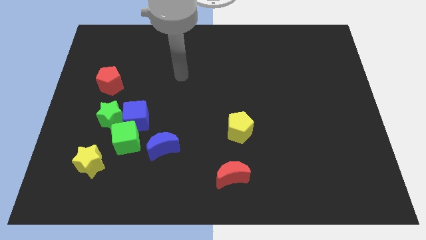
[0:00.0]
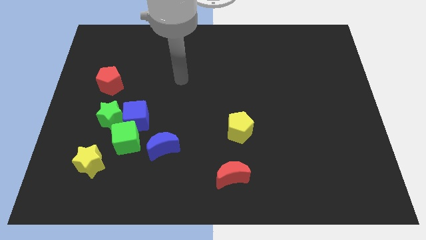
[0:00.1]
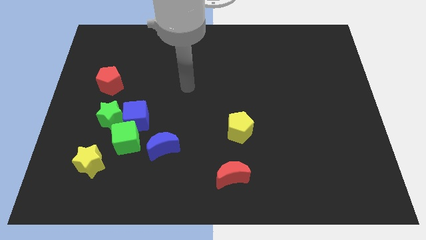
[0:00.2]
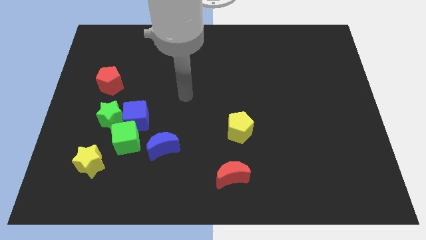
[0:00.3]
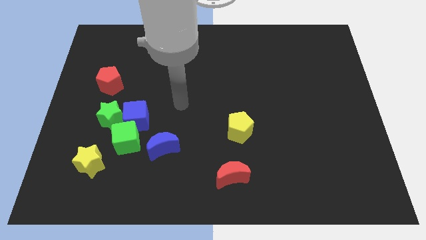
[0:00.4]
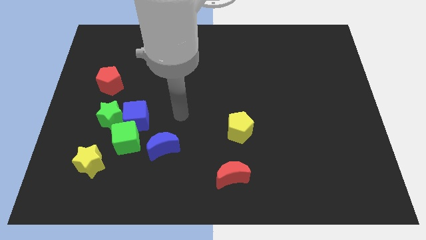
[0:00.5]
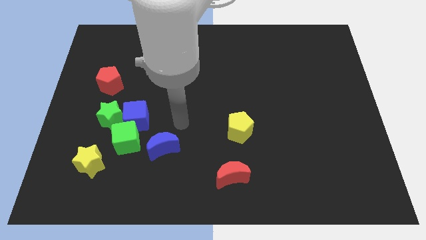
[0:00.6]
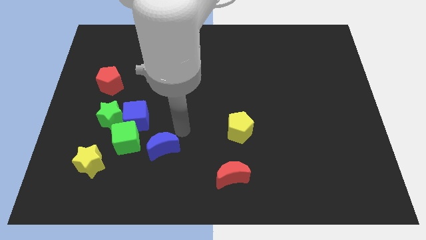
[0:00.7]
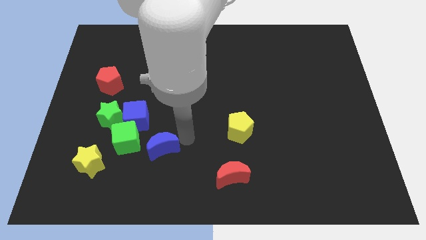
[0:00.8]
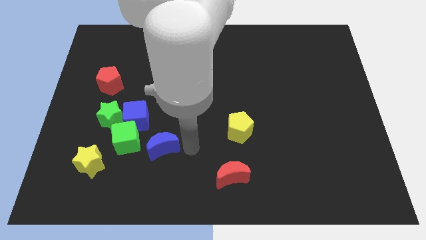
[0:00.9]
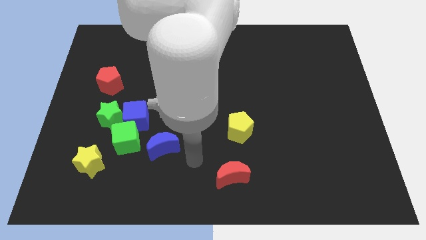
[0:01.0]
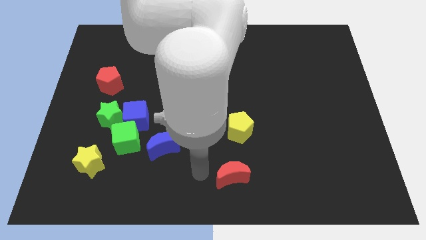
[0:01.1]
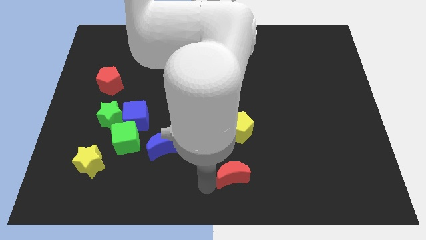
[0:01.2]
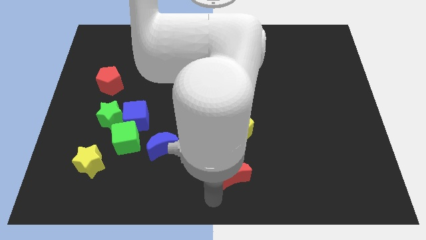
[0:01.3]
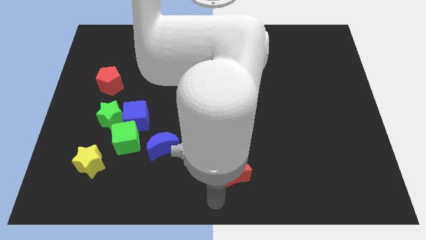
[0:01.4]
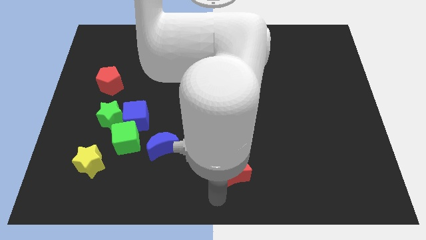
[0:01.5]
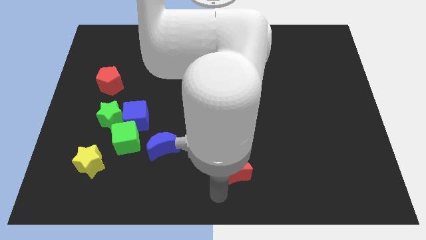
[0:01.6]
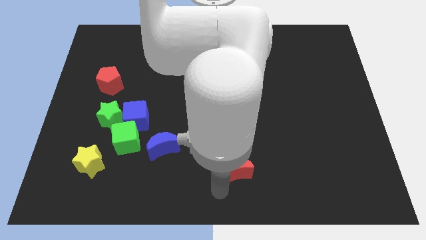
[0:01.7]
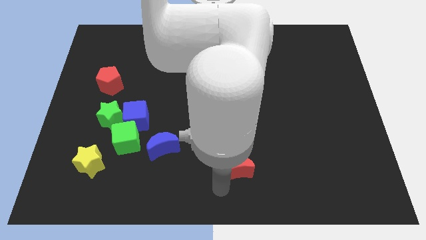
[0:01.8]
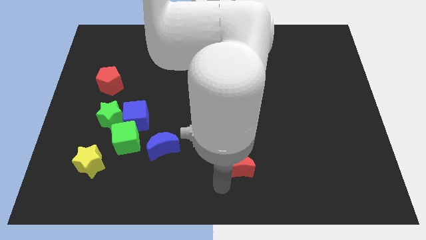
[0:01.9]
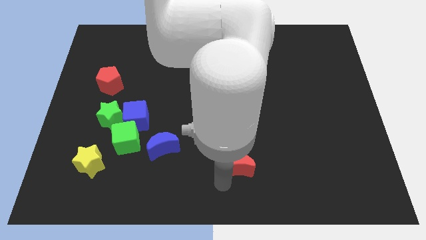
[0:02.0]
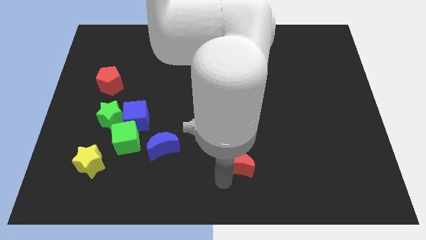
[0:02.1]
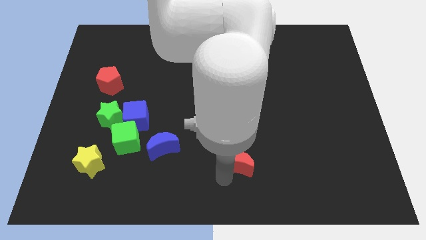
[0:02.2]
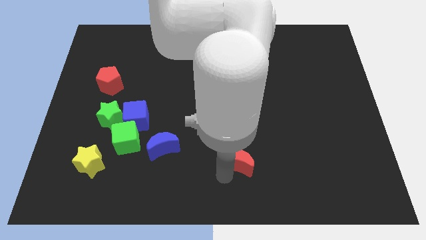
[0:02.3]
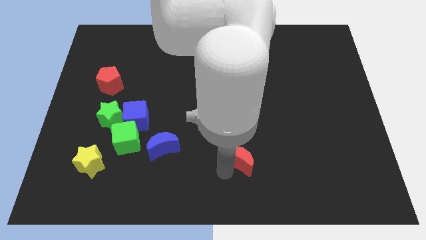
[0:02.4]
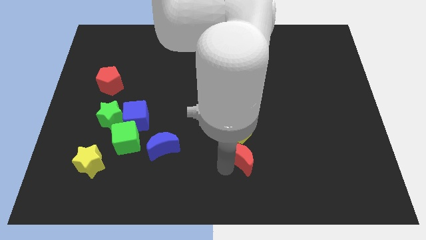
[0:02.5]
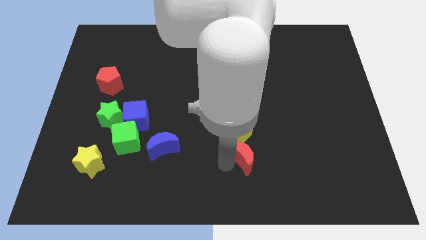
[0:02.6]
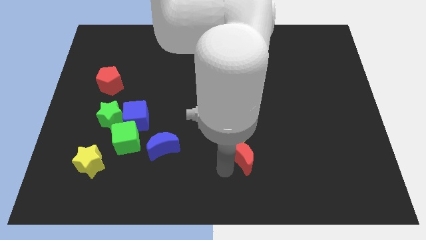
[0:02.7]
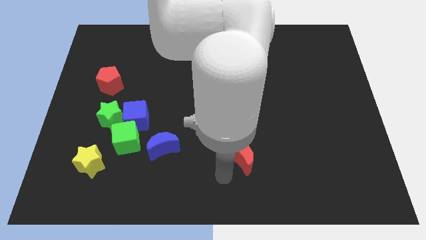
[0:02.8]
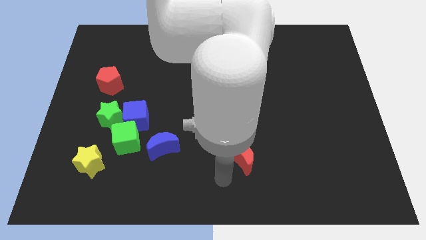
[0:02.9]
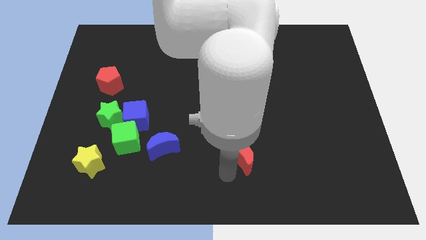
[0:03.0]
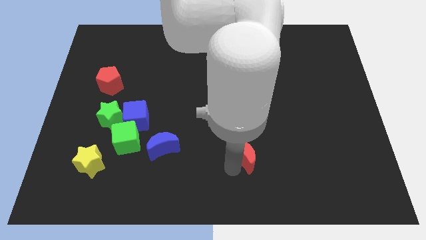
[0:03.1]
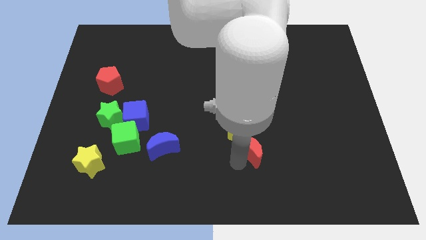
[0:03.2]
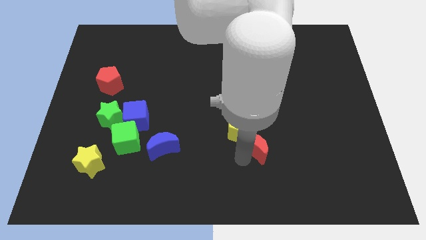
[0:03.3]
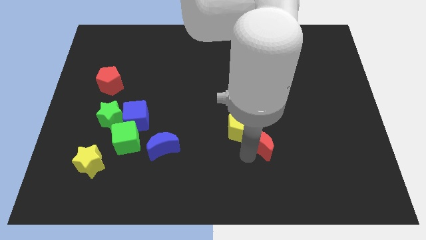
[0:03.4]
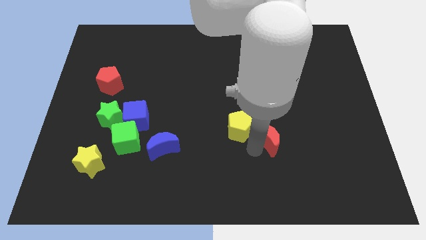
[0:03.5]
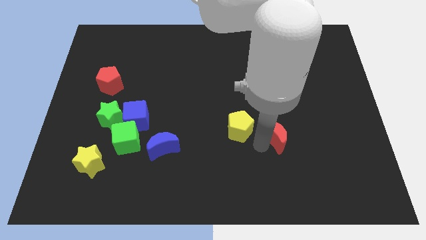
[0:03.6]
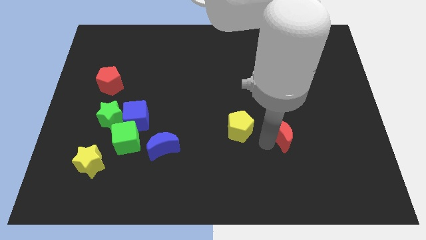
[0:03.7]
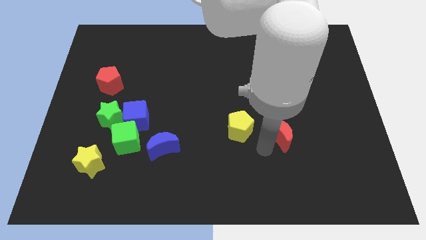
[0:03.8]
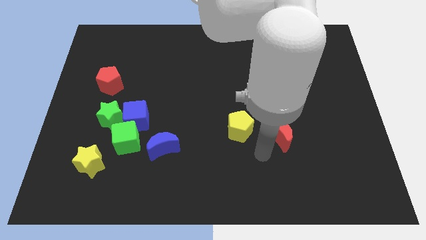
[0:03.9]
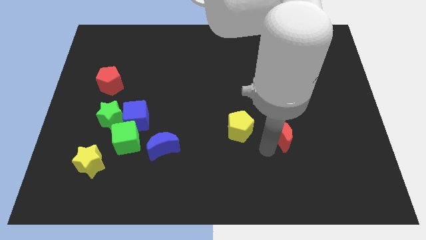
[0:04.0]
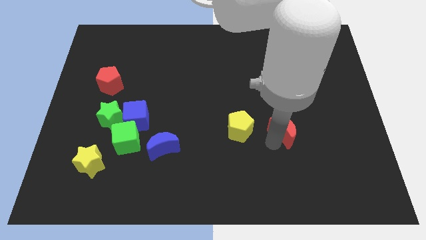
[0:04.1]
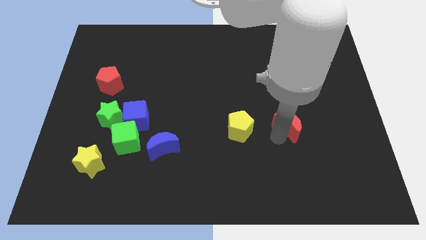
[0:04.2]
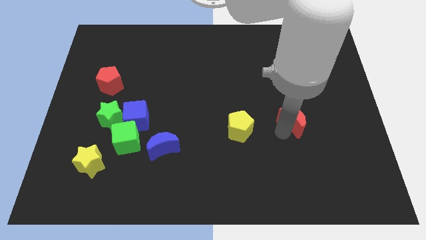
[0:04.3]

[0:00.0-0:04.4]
slide the red moon upwards and then right

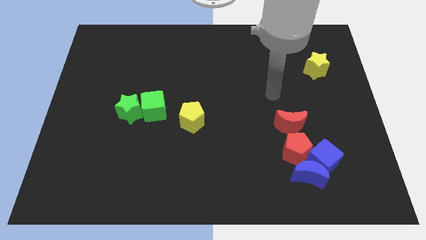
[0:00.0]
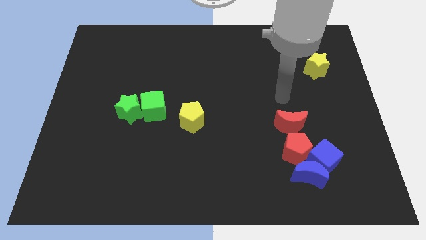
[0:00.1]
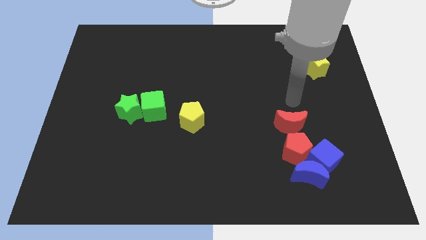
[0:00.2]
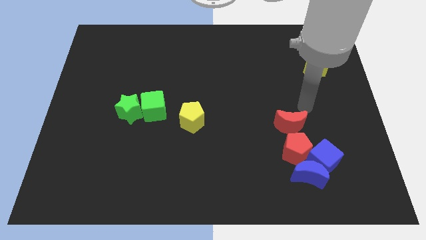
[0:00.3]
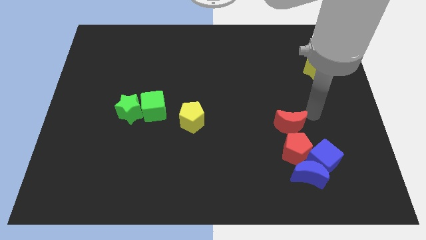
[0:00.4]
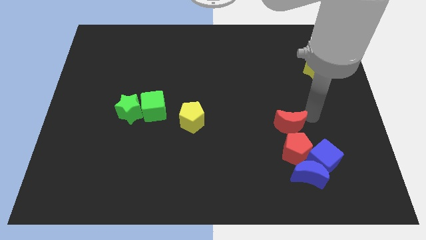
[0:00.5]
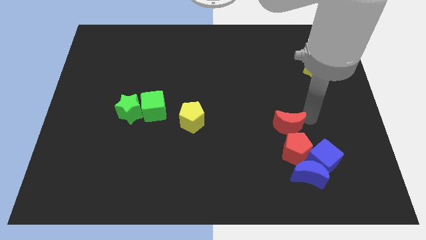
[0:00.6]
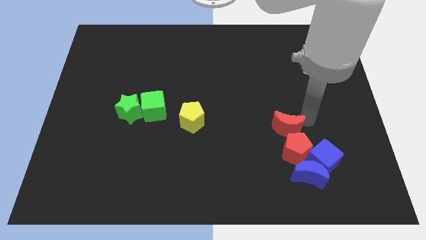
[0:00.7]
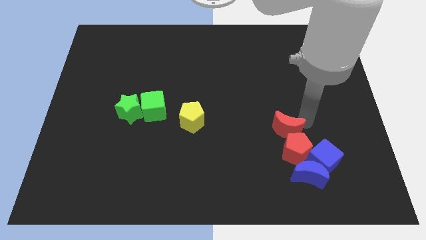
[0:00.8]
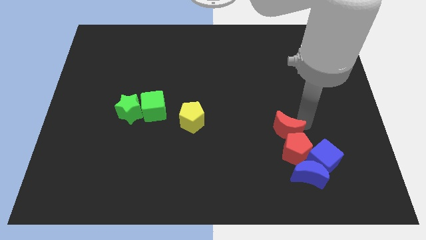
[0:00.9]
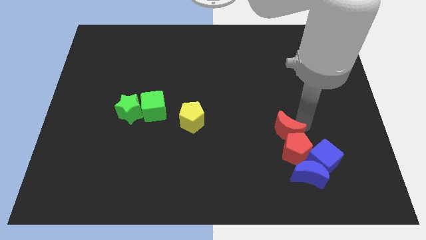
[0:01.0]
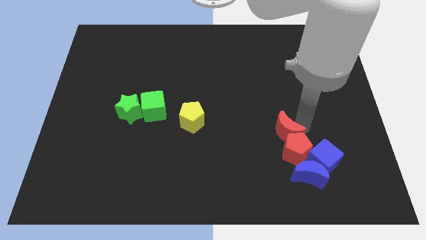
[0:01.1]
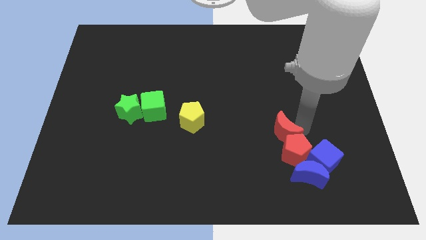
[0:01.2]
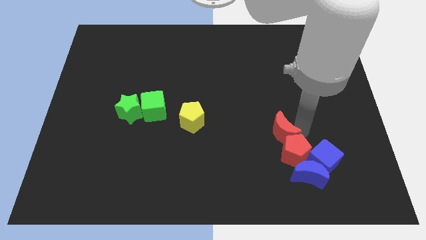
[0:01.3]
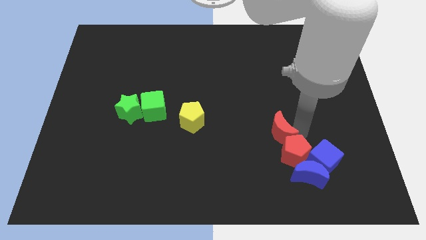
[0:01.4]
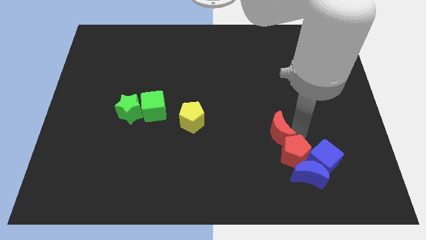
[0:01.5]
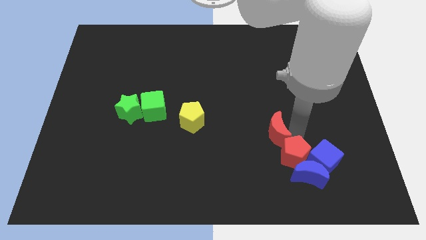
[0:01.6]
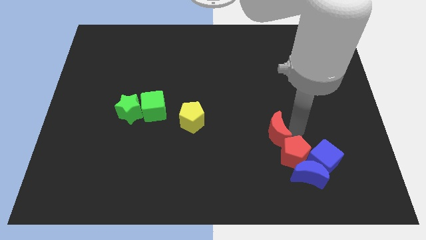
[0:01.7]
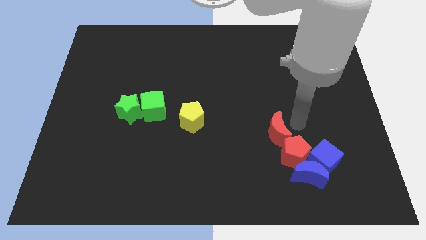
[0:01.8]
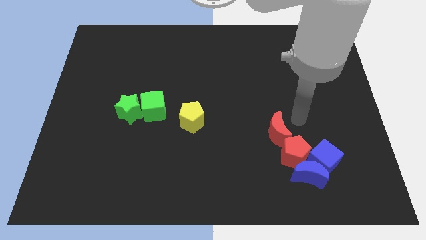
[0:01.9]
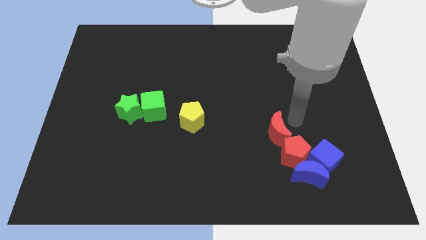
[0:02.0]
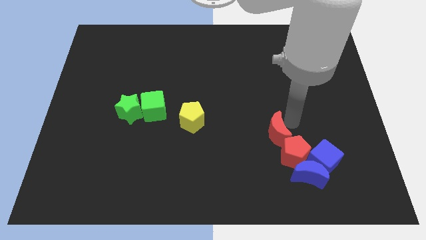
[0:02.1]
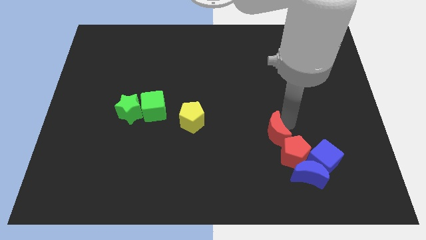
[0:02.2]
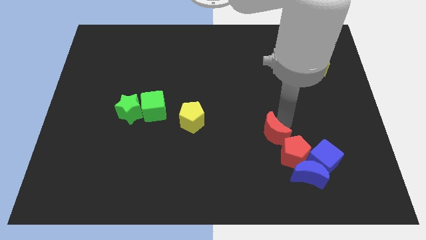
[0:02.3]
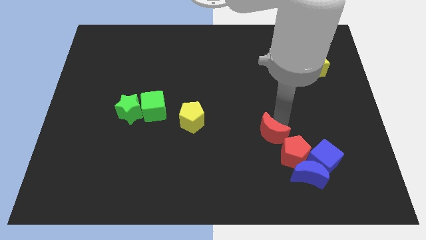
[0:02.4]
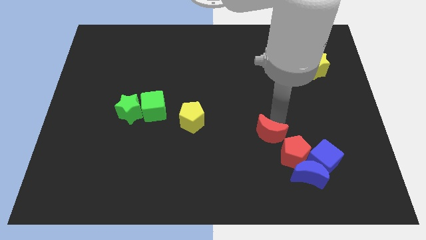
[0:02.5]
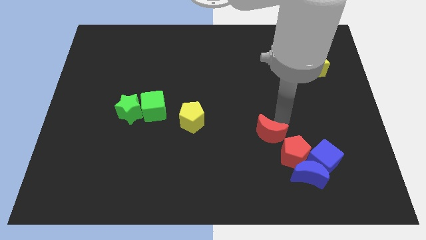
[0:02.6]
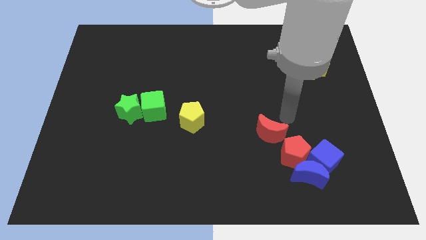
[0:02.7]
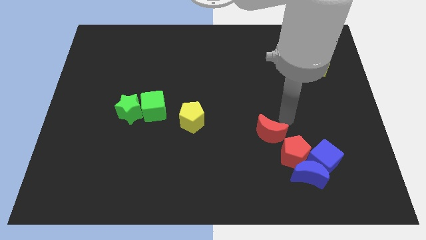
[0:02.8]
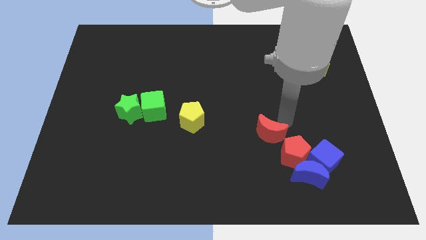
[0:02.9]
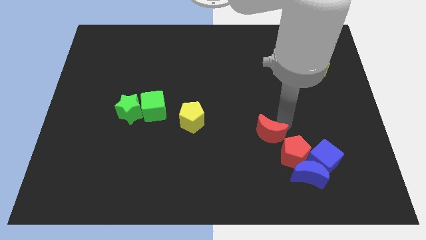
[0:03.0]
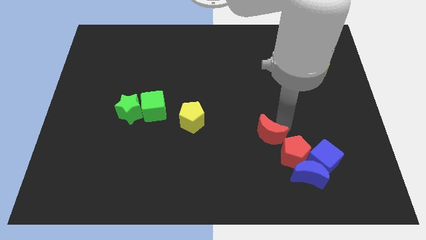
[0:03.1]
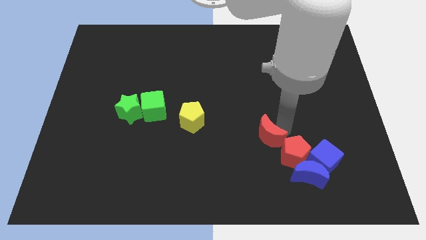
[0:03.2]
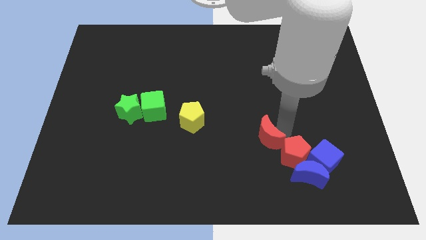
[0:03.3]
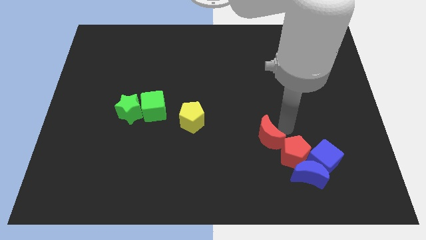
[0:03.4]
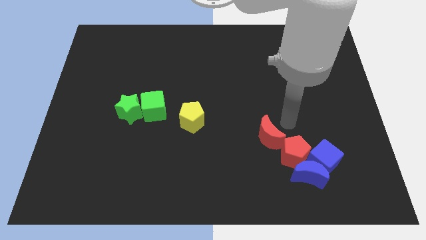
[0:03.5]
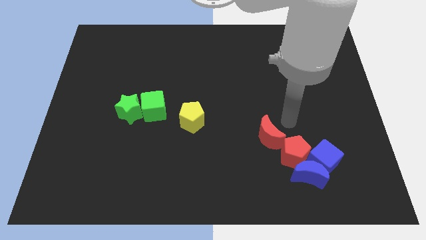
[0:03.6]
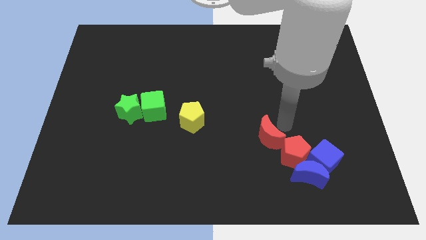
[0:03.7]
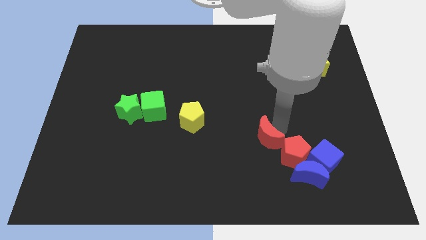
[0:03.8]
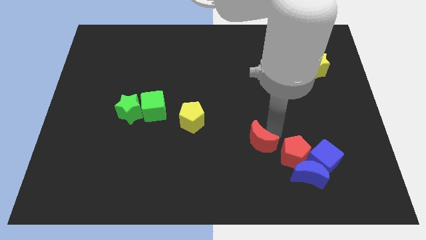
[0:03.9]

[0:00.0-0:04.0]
move the red moon diagonally downwards and to the left a little bit

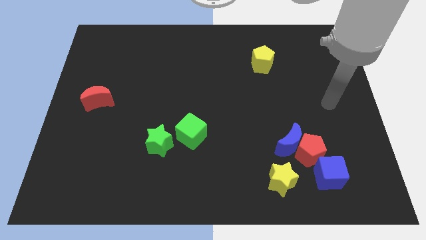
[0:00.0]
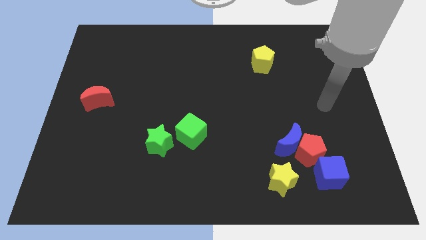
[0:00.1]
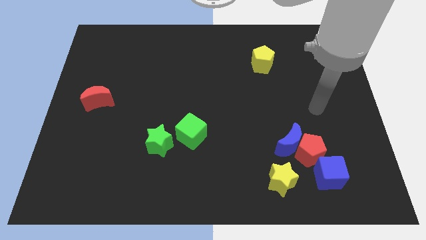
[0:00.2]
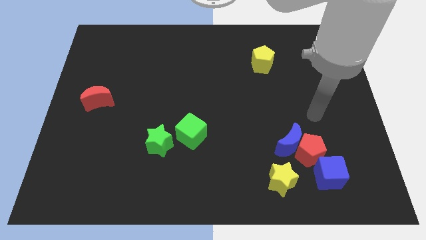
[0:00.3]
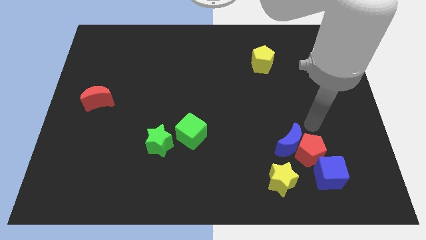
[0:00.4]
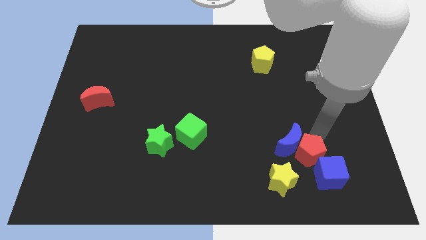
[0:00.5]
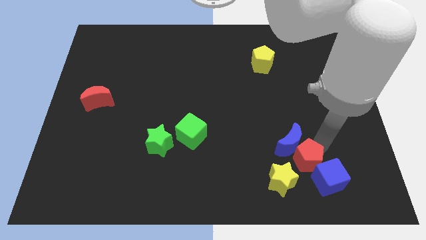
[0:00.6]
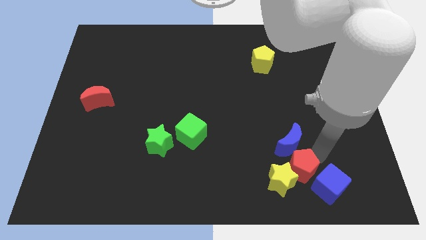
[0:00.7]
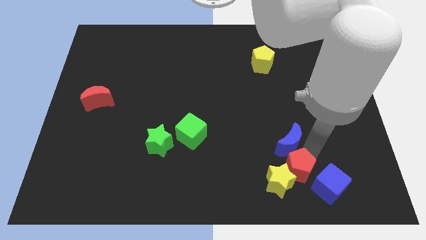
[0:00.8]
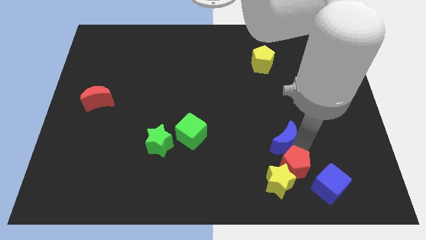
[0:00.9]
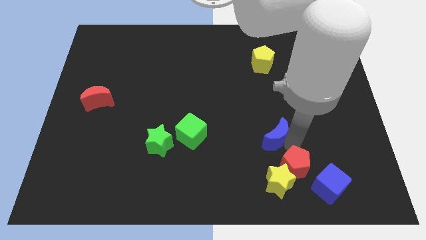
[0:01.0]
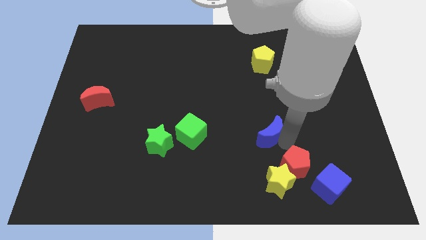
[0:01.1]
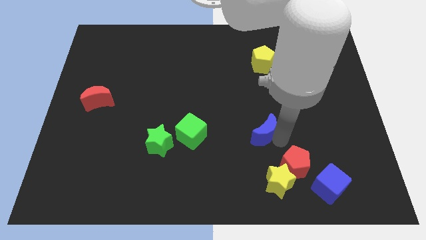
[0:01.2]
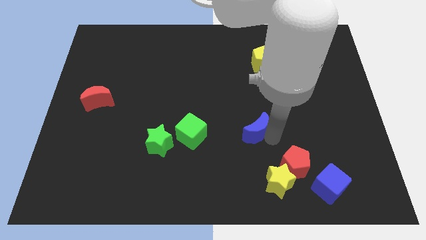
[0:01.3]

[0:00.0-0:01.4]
slide the blue moon a bit diagonally up and left
